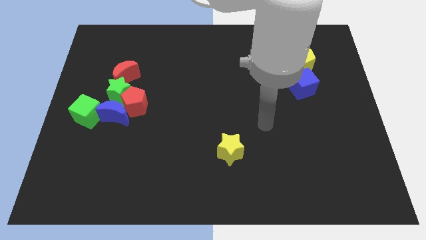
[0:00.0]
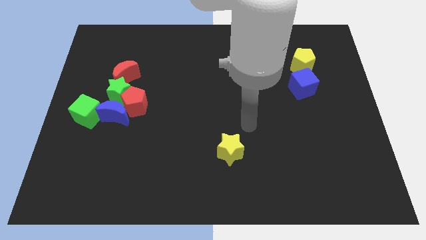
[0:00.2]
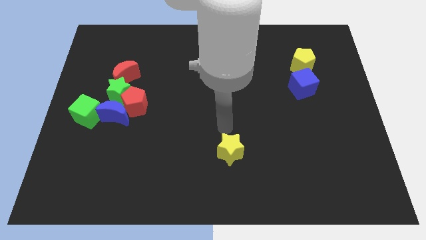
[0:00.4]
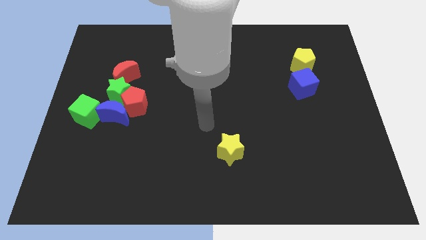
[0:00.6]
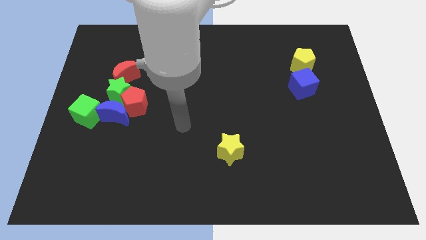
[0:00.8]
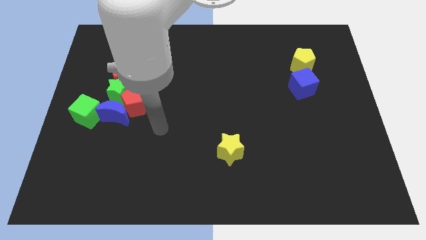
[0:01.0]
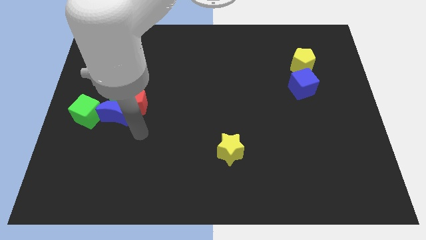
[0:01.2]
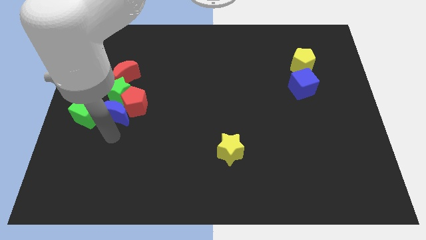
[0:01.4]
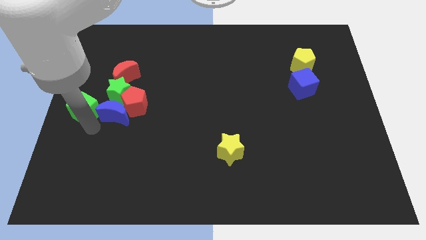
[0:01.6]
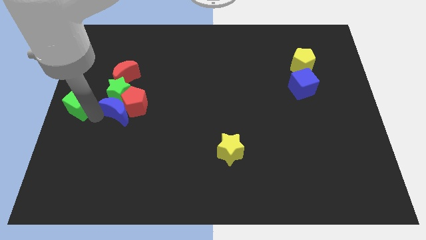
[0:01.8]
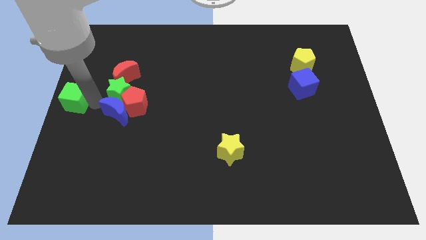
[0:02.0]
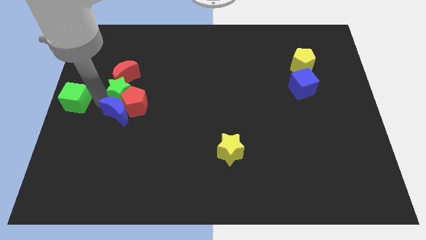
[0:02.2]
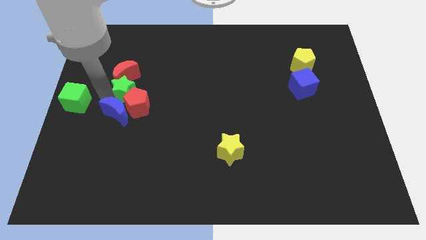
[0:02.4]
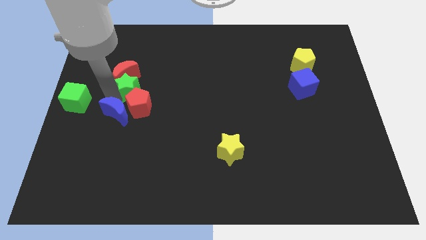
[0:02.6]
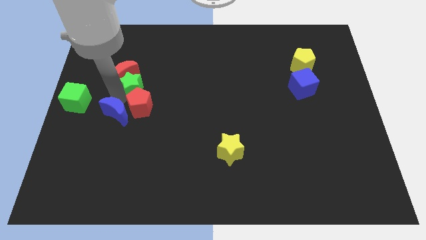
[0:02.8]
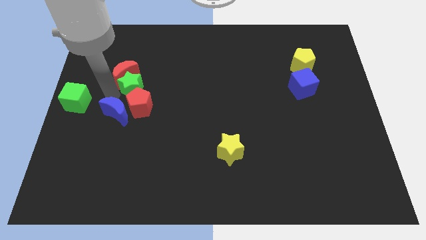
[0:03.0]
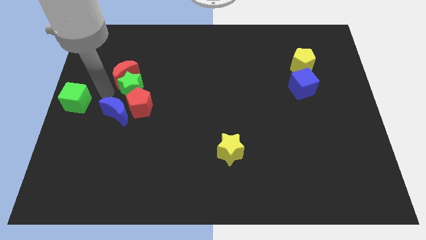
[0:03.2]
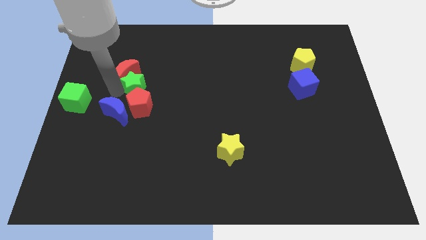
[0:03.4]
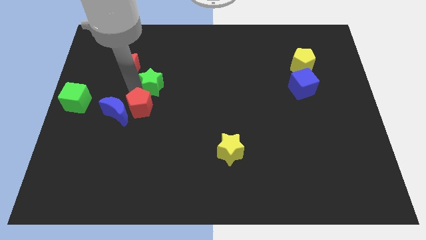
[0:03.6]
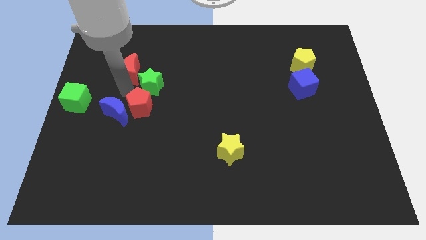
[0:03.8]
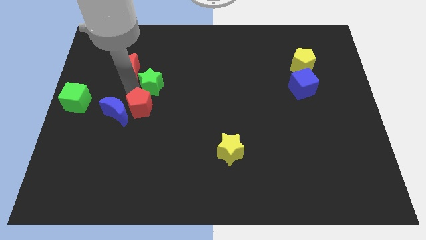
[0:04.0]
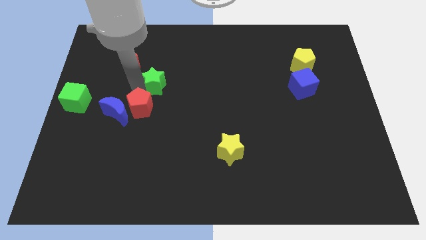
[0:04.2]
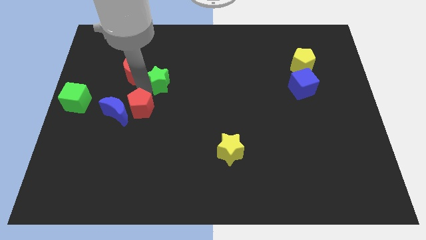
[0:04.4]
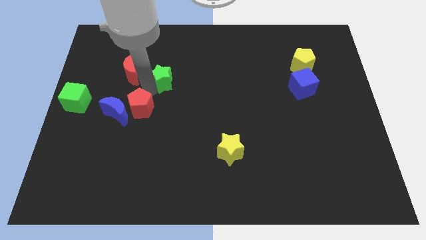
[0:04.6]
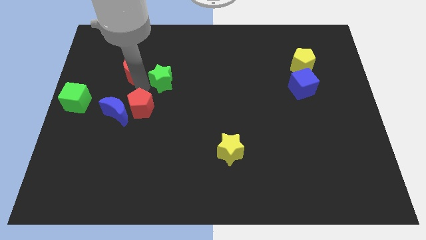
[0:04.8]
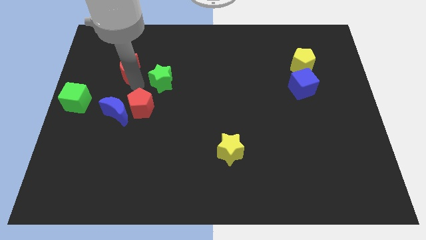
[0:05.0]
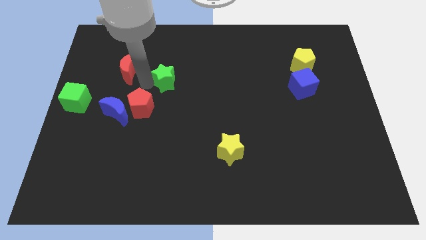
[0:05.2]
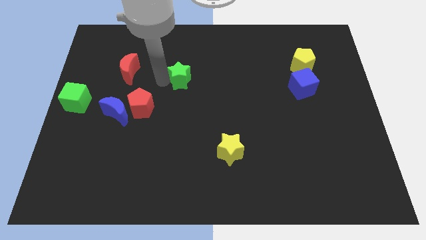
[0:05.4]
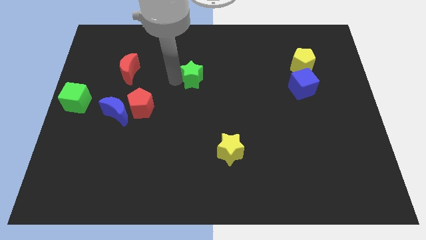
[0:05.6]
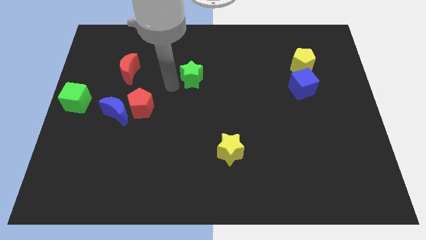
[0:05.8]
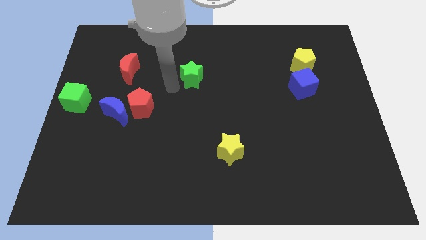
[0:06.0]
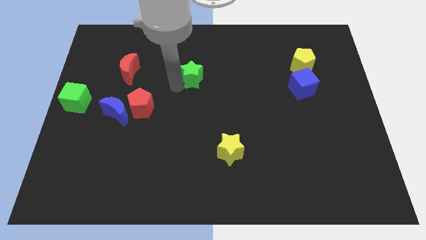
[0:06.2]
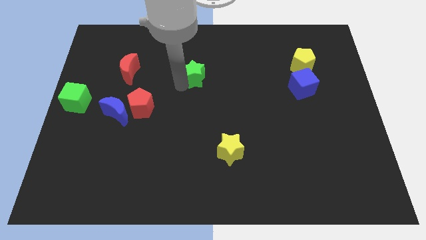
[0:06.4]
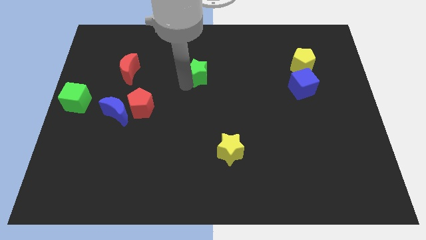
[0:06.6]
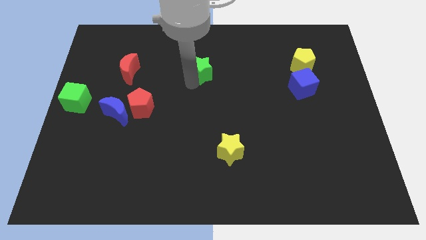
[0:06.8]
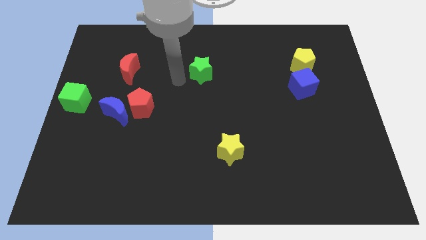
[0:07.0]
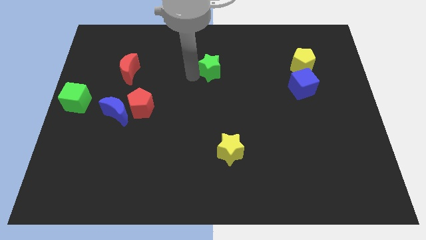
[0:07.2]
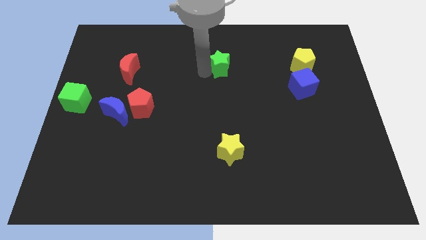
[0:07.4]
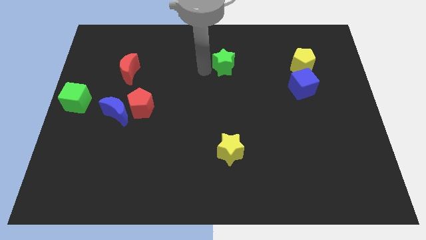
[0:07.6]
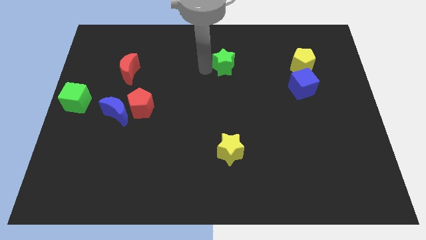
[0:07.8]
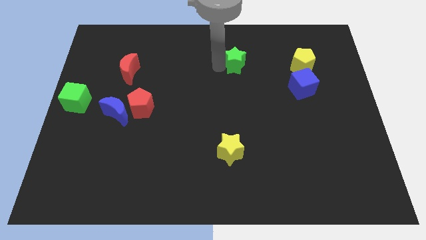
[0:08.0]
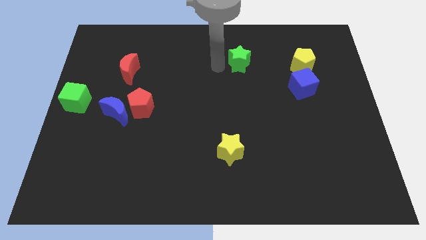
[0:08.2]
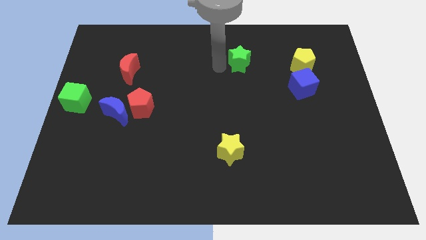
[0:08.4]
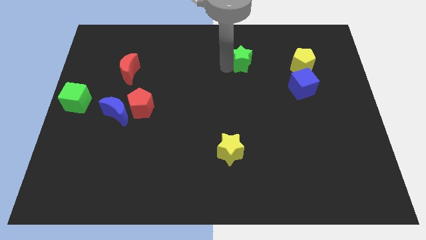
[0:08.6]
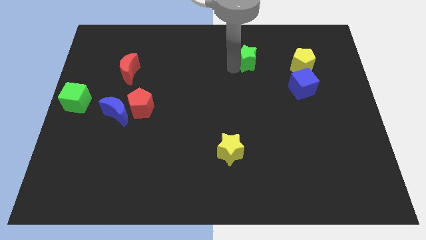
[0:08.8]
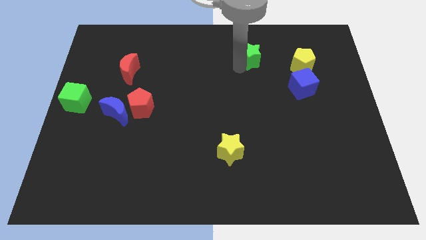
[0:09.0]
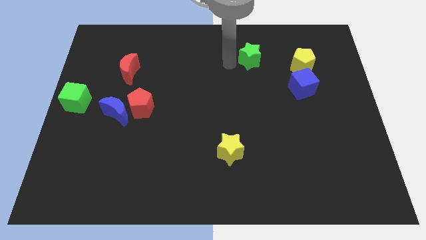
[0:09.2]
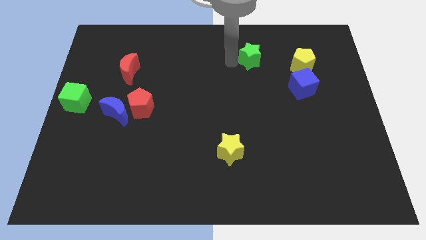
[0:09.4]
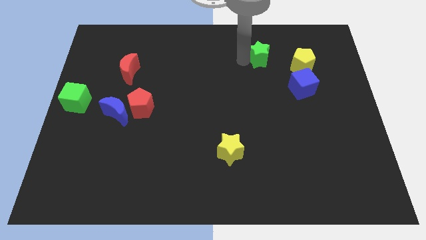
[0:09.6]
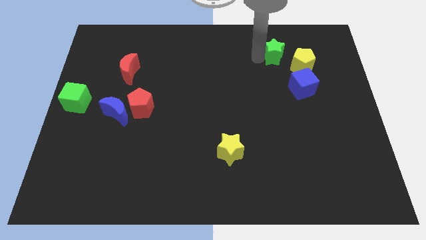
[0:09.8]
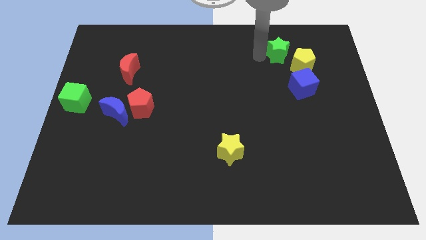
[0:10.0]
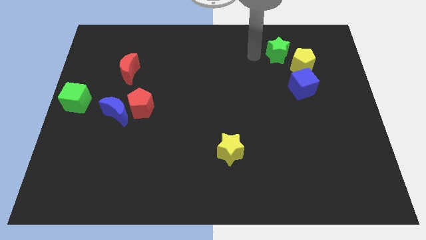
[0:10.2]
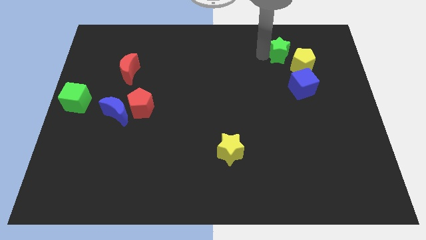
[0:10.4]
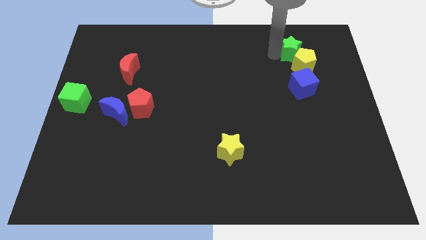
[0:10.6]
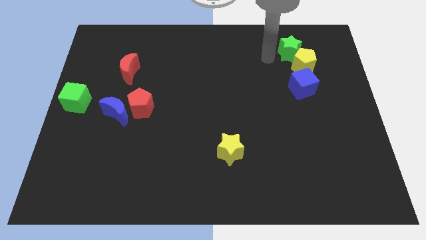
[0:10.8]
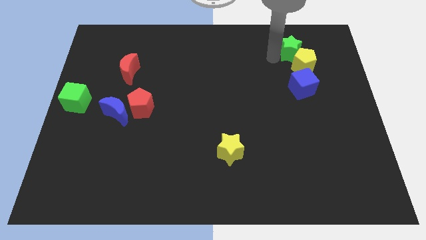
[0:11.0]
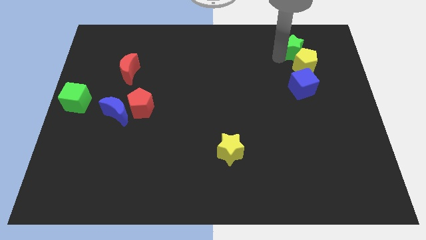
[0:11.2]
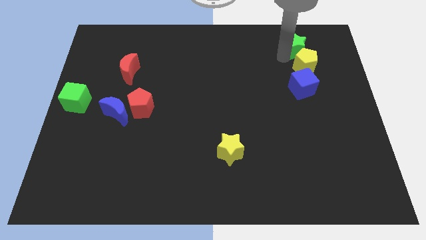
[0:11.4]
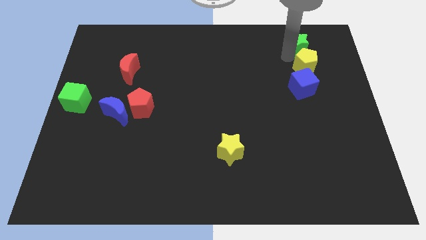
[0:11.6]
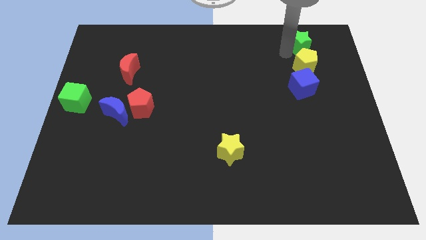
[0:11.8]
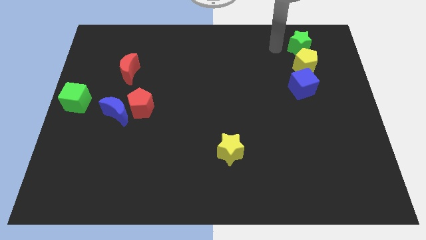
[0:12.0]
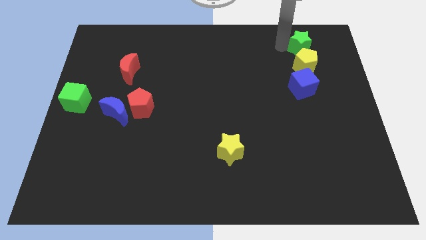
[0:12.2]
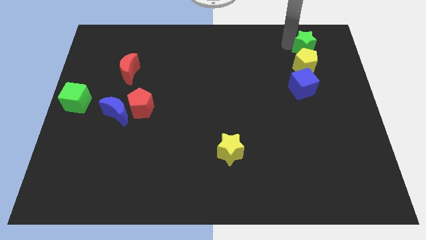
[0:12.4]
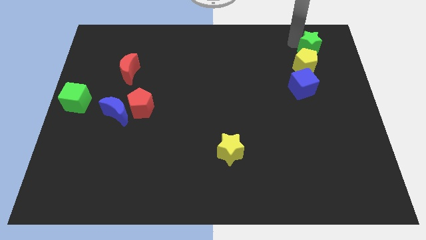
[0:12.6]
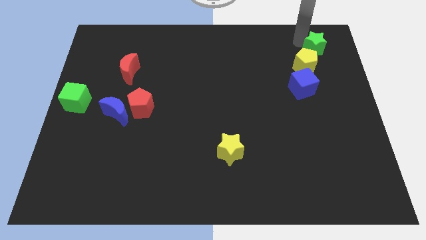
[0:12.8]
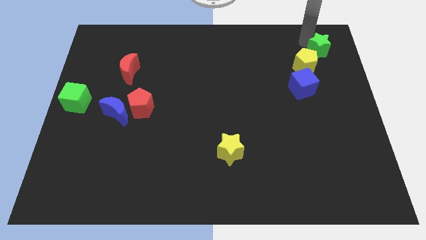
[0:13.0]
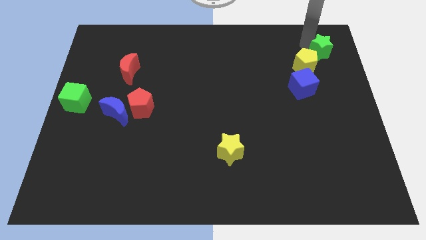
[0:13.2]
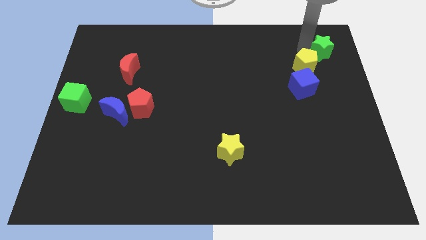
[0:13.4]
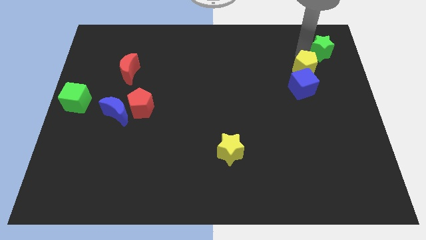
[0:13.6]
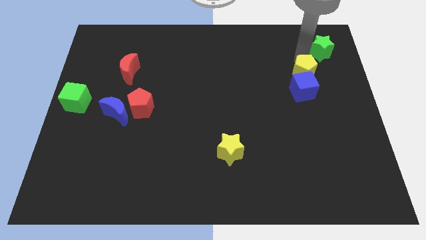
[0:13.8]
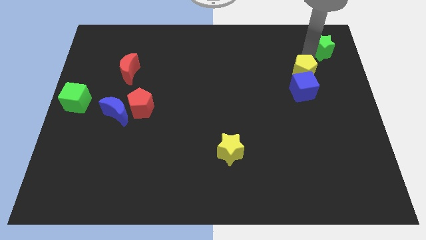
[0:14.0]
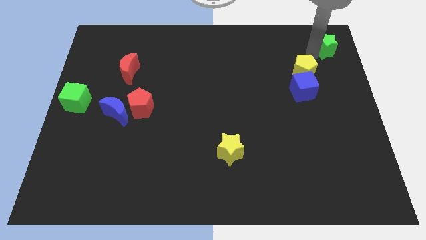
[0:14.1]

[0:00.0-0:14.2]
slide the green star to the top right of the board
